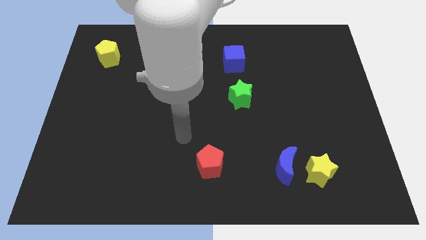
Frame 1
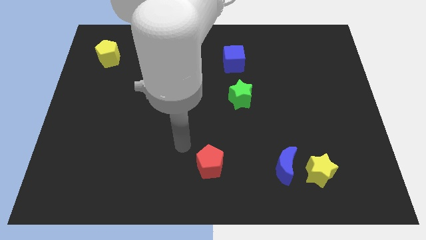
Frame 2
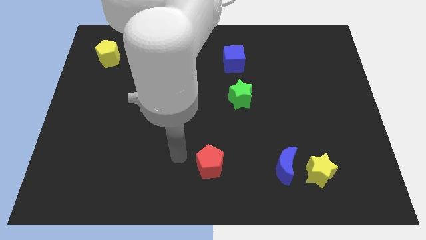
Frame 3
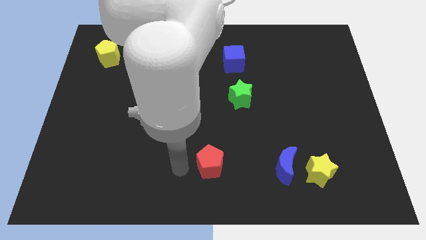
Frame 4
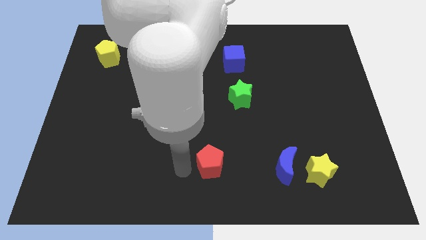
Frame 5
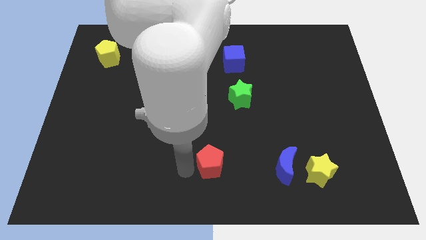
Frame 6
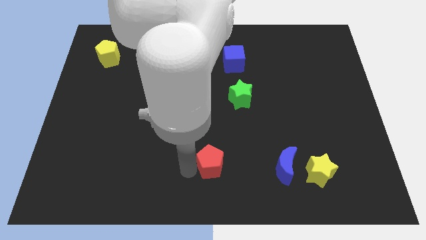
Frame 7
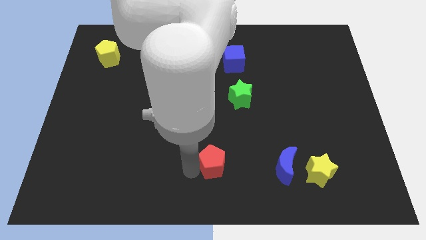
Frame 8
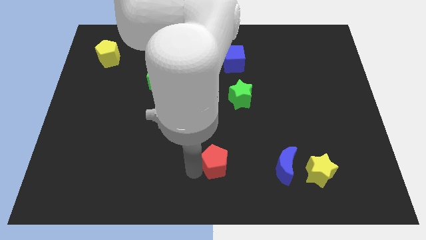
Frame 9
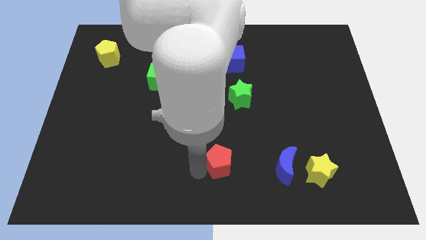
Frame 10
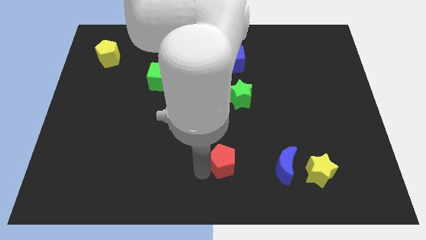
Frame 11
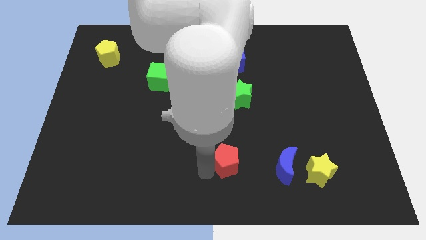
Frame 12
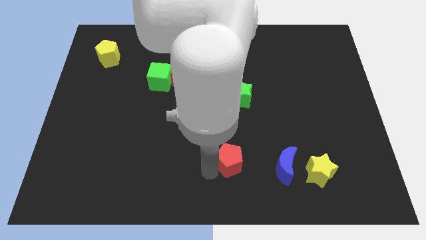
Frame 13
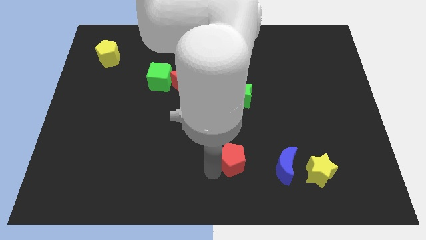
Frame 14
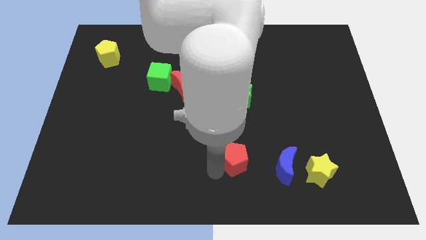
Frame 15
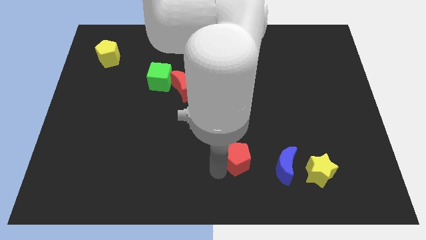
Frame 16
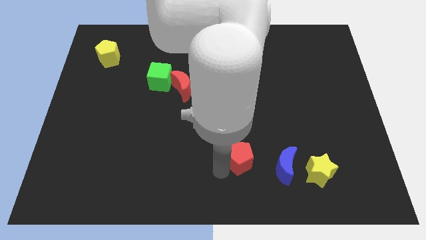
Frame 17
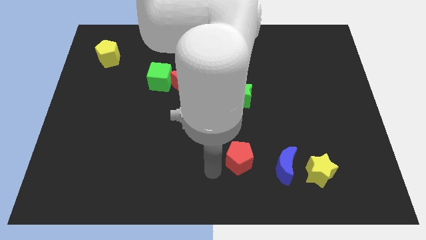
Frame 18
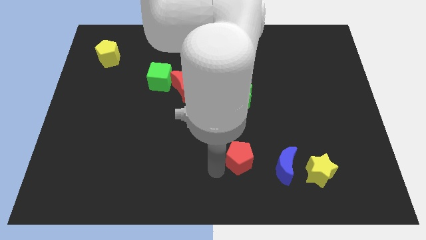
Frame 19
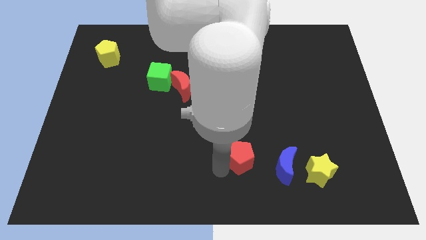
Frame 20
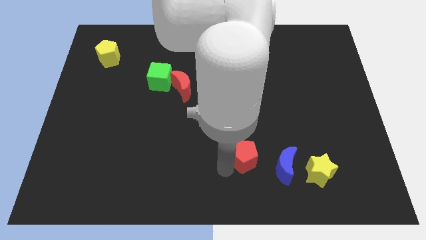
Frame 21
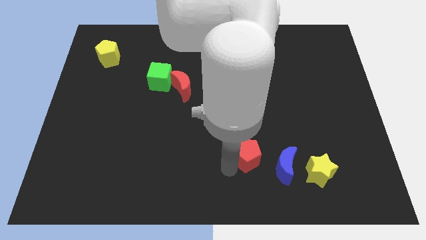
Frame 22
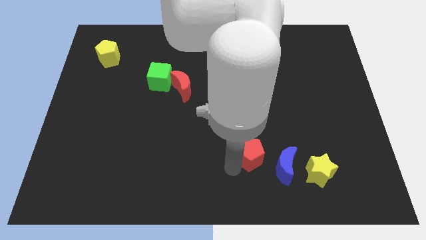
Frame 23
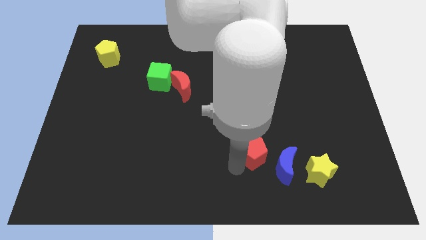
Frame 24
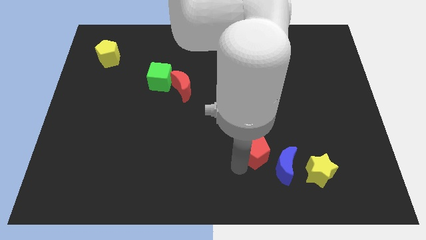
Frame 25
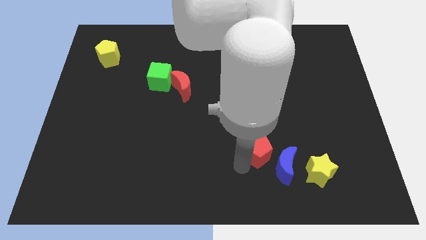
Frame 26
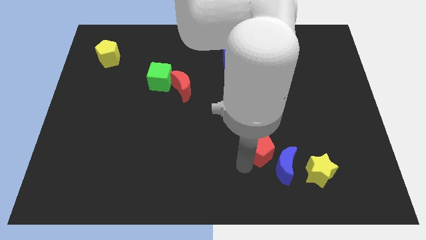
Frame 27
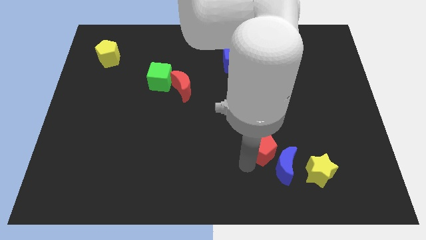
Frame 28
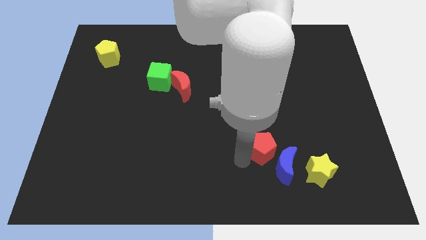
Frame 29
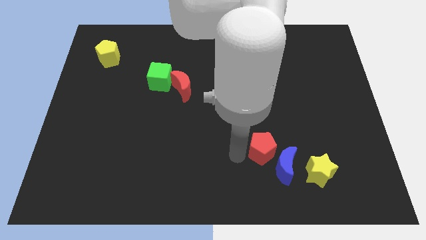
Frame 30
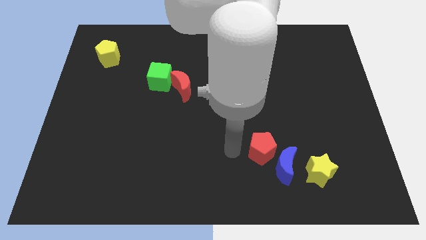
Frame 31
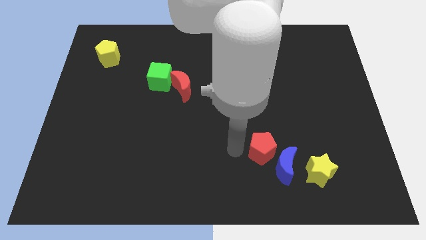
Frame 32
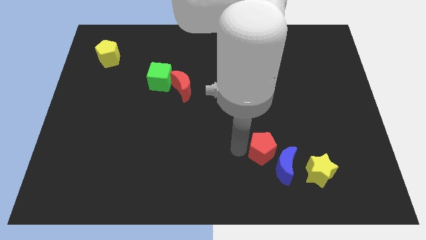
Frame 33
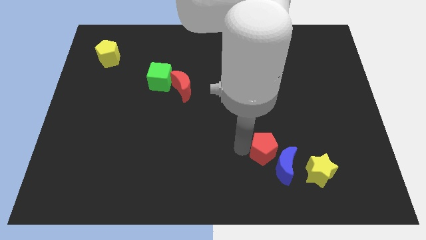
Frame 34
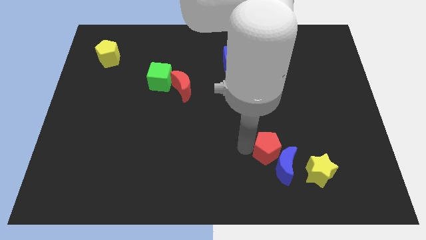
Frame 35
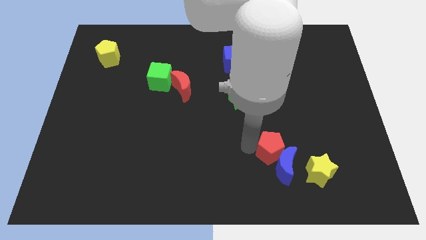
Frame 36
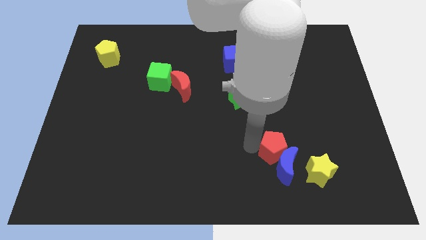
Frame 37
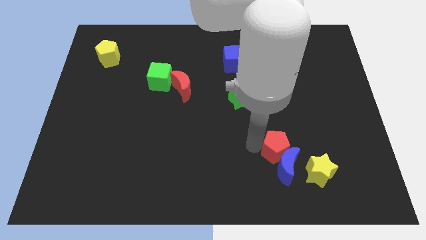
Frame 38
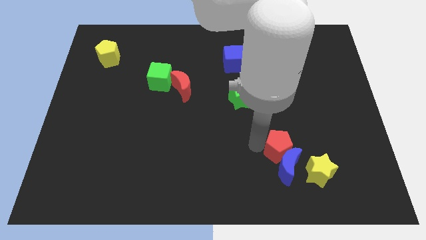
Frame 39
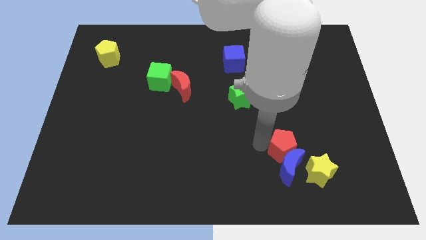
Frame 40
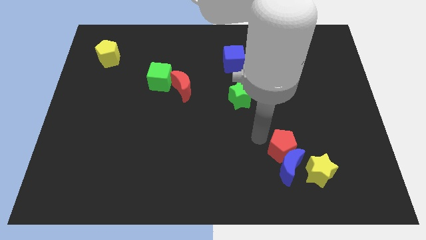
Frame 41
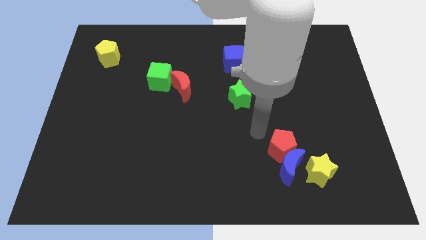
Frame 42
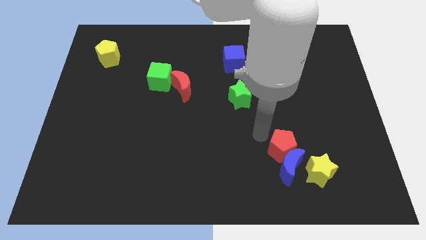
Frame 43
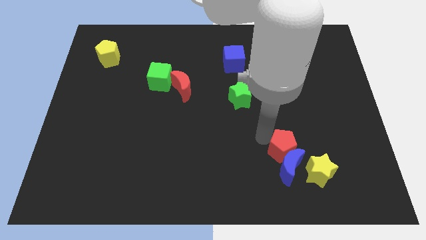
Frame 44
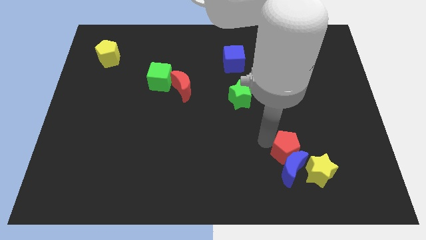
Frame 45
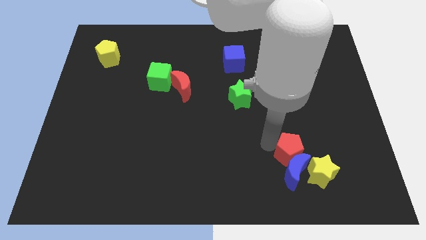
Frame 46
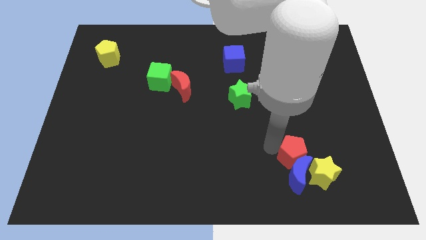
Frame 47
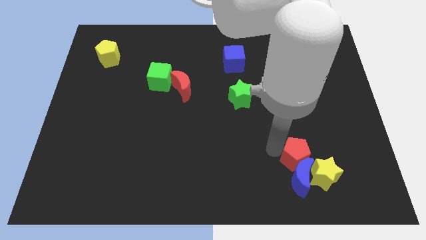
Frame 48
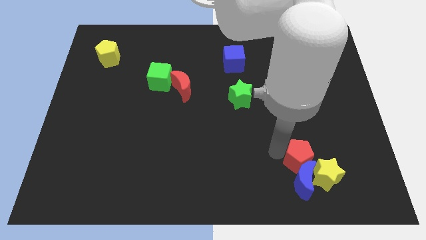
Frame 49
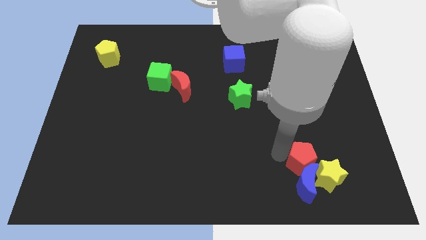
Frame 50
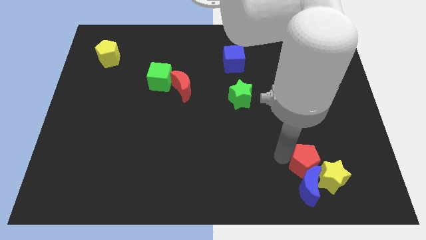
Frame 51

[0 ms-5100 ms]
slide the red pentagon close to the yellow star

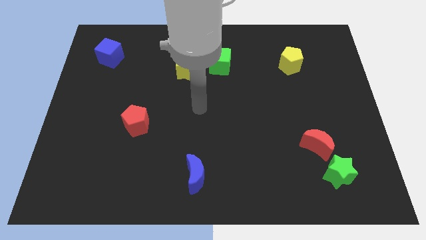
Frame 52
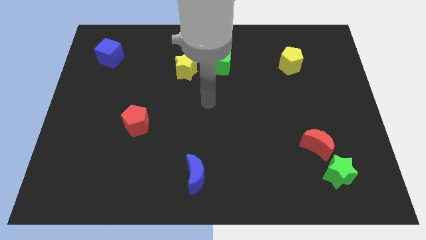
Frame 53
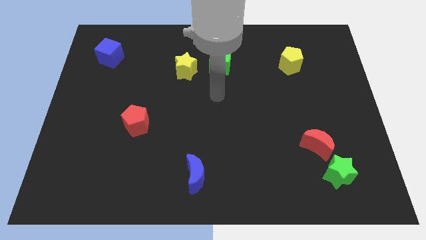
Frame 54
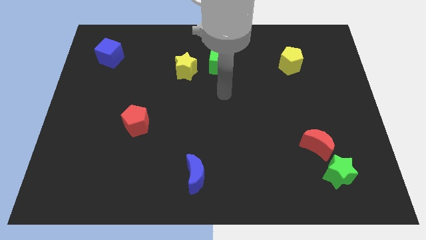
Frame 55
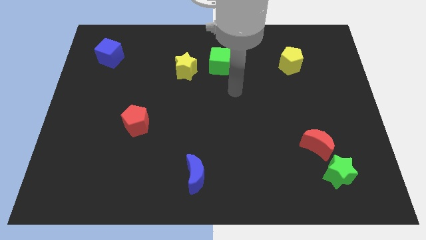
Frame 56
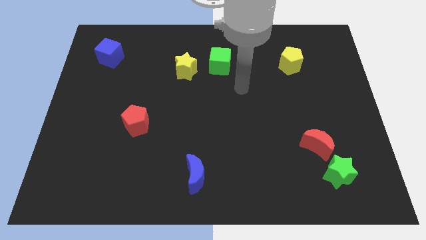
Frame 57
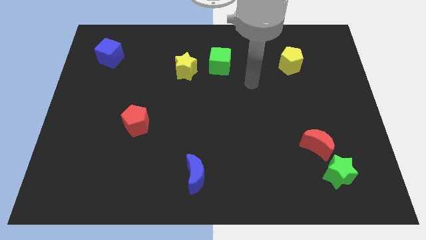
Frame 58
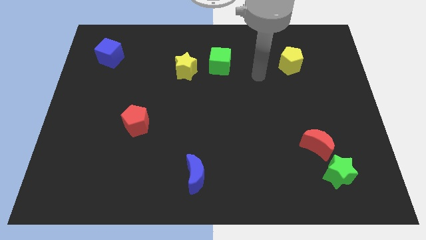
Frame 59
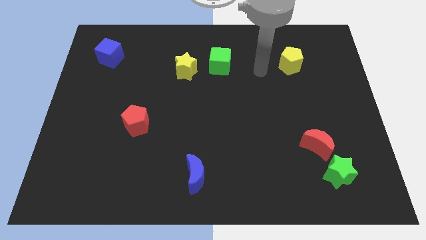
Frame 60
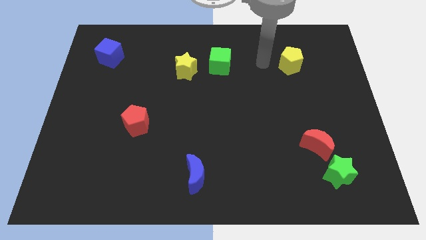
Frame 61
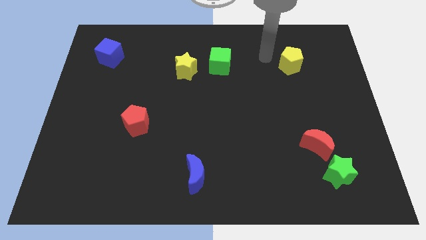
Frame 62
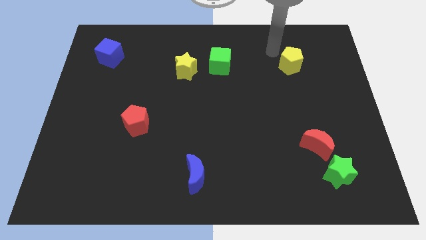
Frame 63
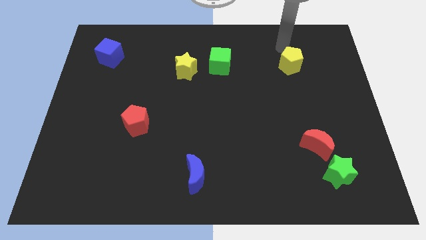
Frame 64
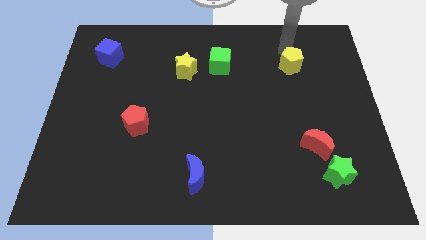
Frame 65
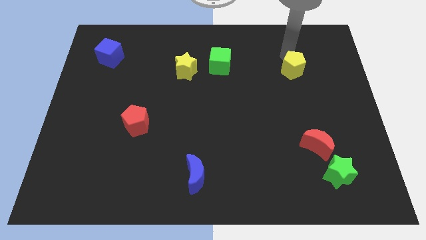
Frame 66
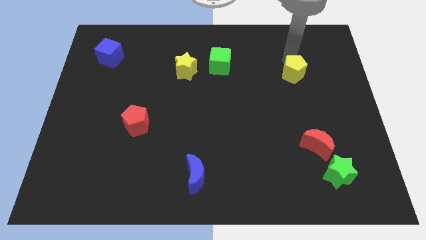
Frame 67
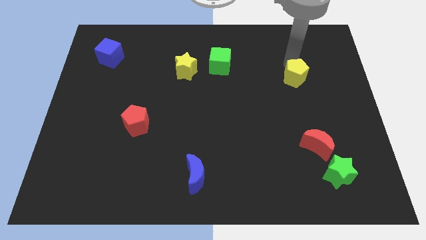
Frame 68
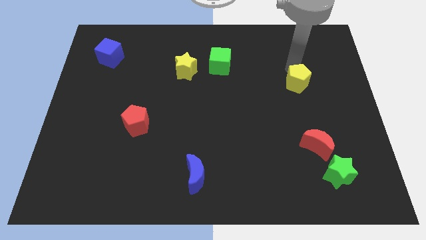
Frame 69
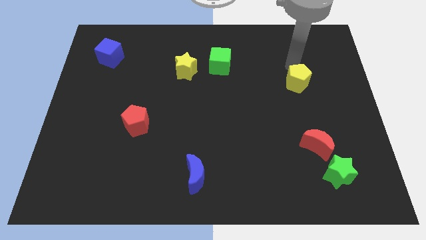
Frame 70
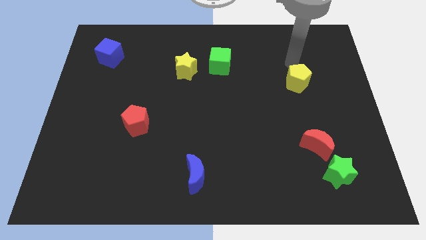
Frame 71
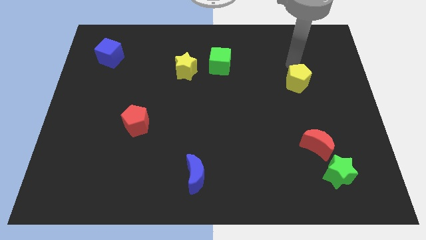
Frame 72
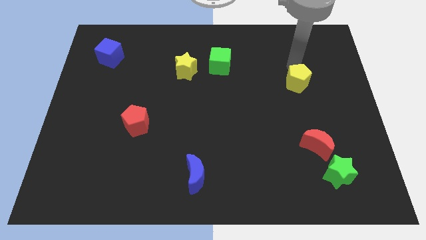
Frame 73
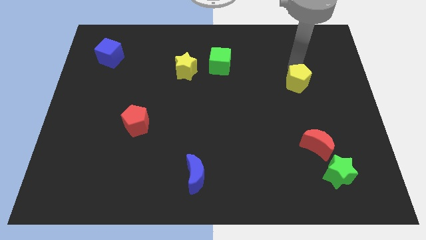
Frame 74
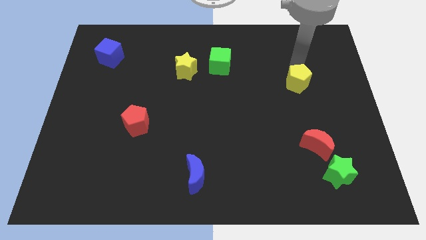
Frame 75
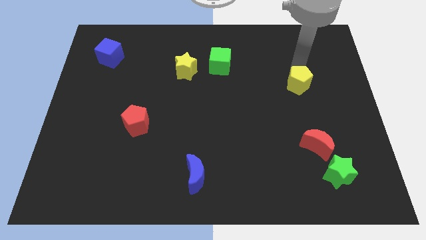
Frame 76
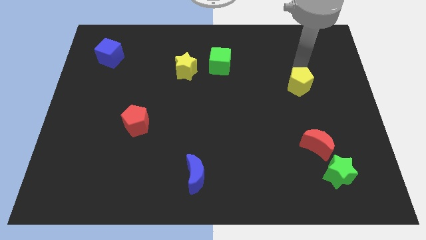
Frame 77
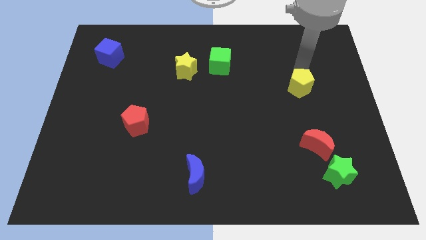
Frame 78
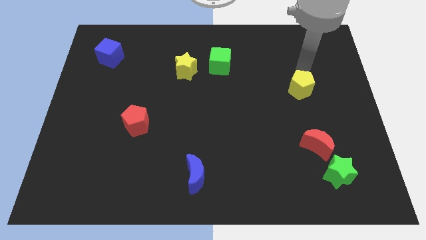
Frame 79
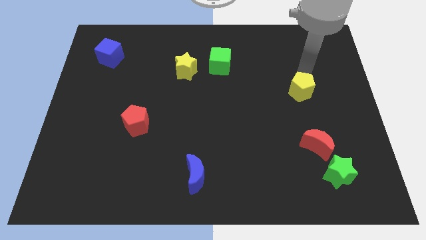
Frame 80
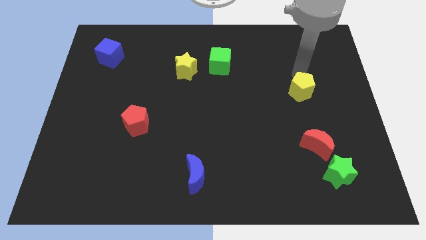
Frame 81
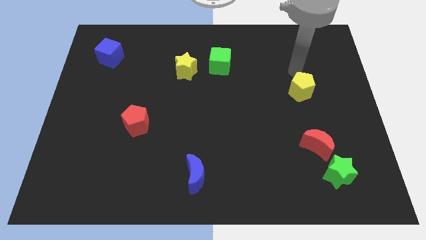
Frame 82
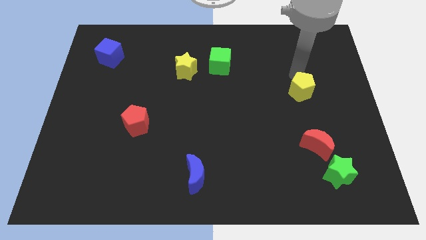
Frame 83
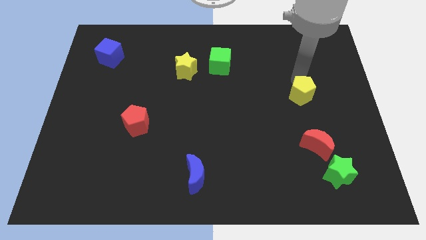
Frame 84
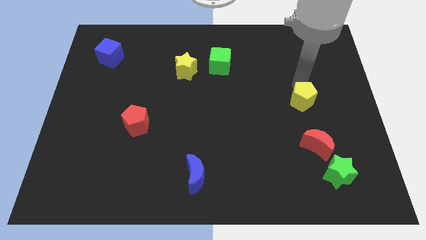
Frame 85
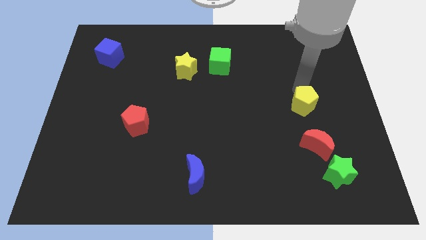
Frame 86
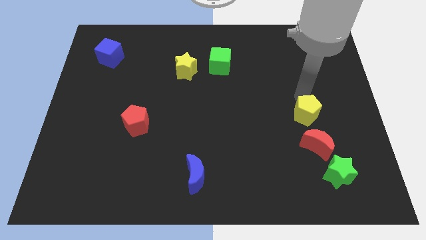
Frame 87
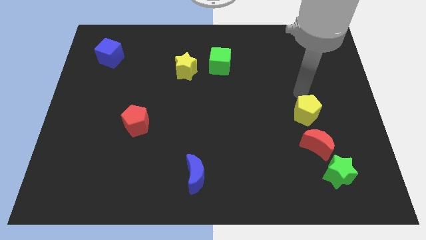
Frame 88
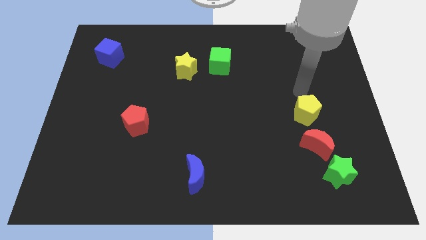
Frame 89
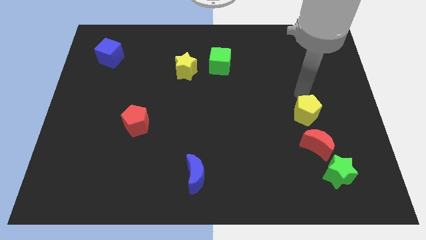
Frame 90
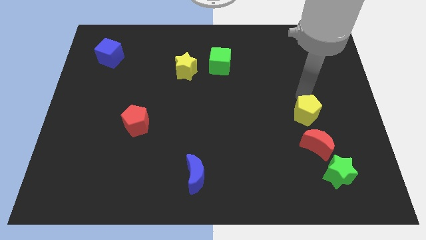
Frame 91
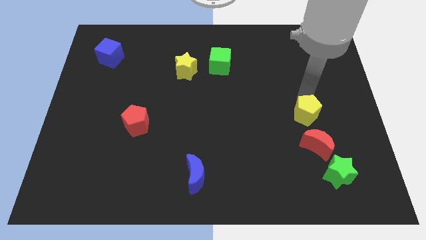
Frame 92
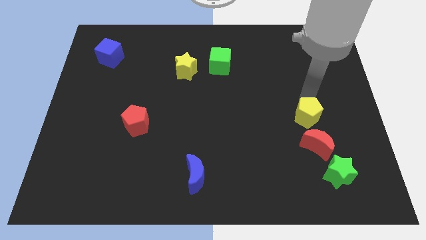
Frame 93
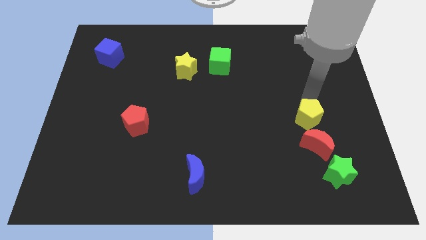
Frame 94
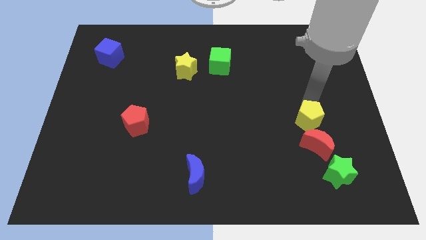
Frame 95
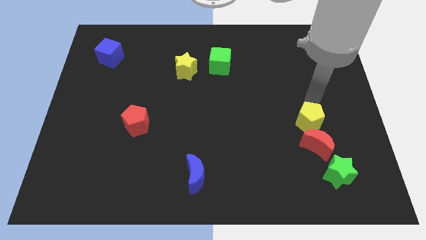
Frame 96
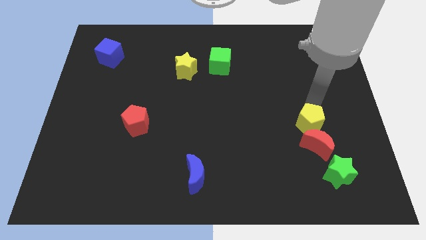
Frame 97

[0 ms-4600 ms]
slide the yellow pentagon next to the red moon
